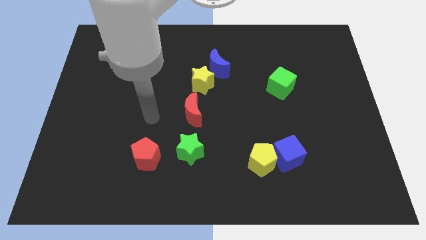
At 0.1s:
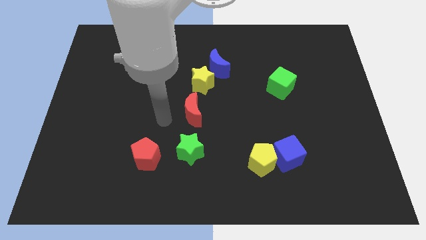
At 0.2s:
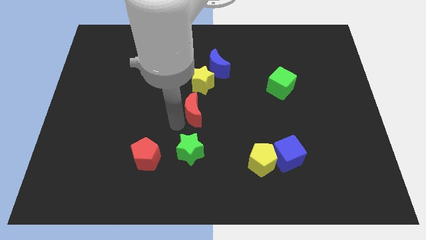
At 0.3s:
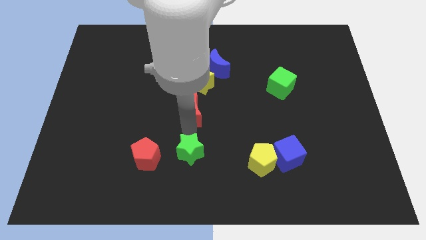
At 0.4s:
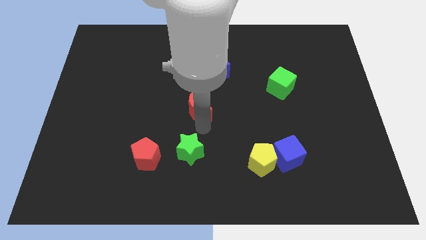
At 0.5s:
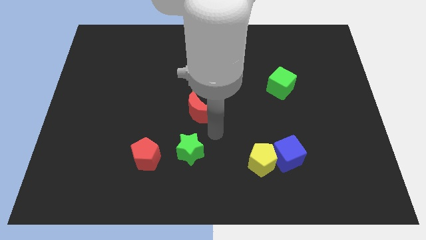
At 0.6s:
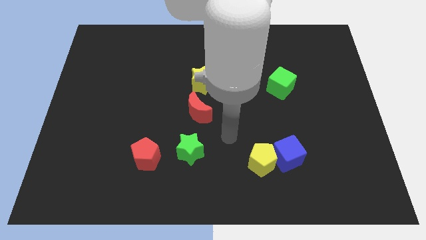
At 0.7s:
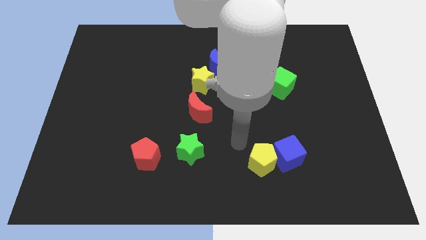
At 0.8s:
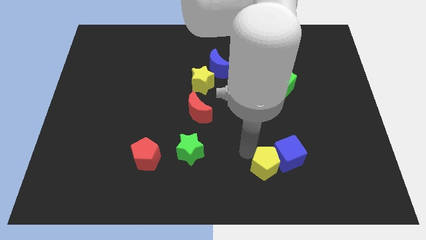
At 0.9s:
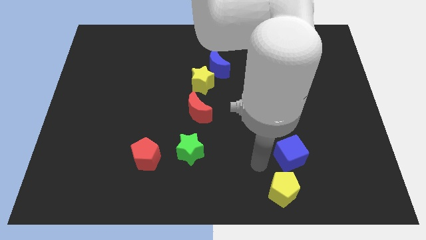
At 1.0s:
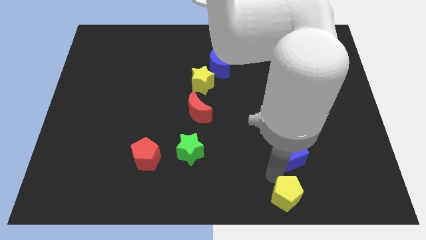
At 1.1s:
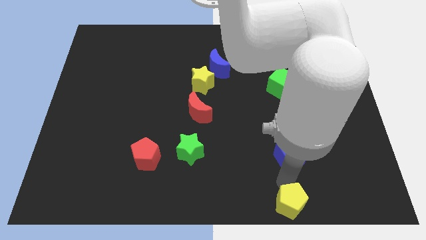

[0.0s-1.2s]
separate the blue cube from the yellow pentagon

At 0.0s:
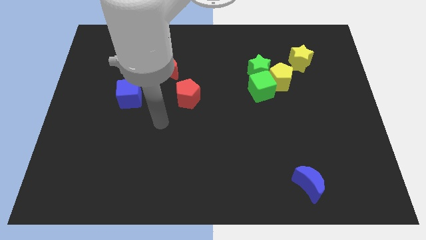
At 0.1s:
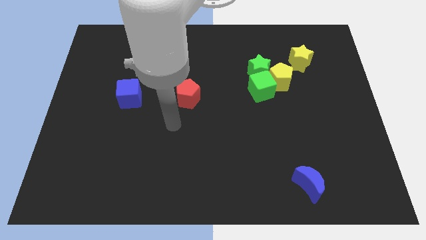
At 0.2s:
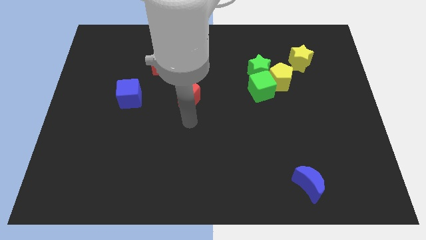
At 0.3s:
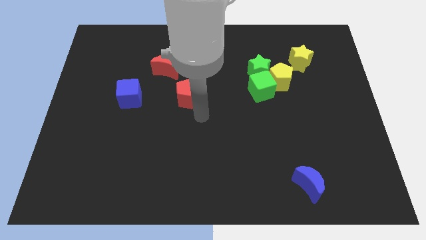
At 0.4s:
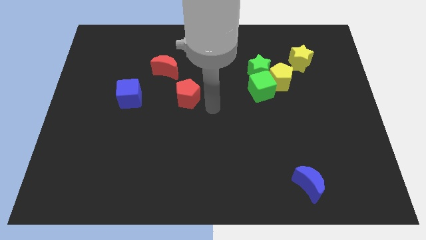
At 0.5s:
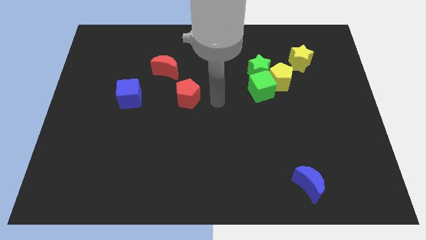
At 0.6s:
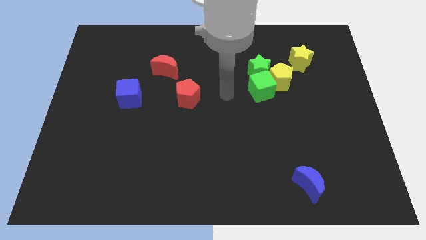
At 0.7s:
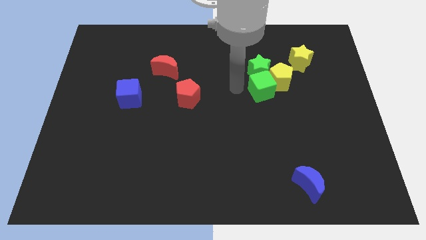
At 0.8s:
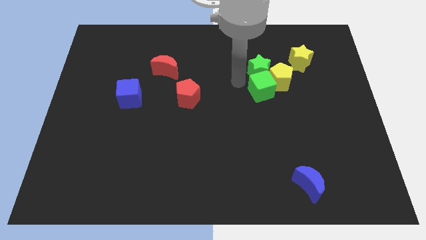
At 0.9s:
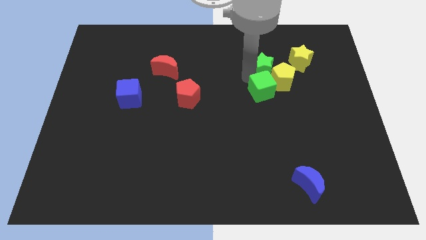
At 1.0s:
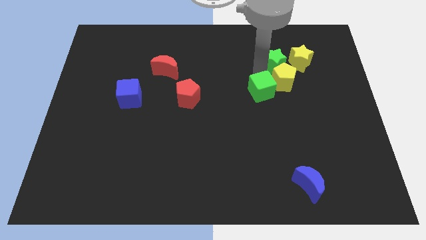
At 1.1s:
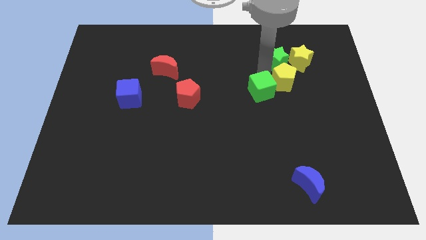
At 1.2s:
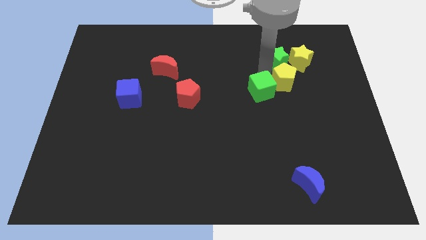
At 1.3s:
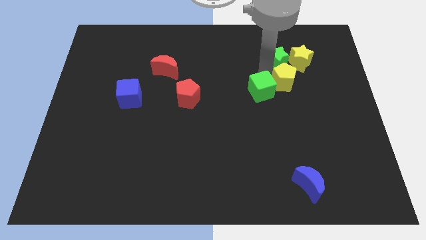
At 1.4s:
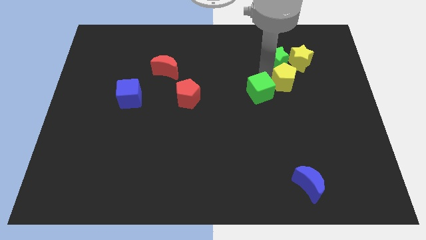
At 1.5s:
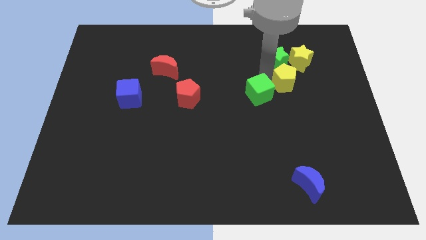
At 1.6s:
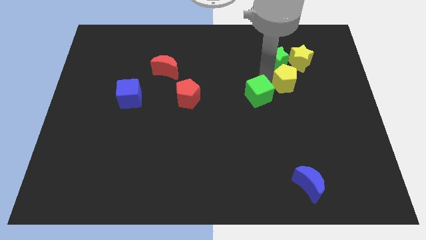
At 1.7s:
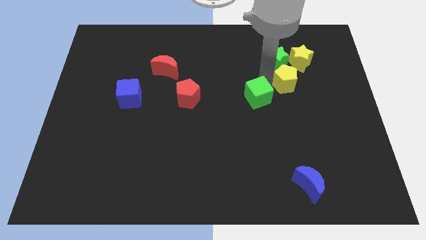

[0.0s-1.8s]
move the green cube away from the yellow pentagon and green star

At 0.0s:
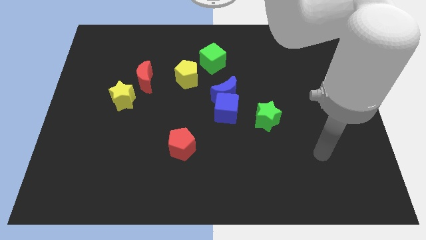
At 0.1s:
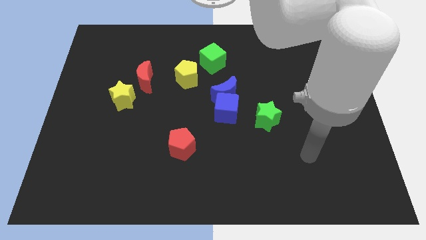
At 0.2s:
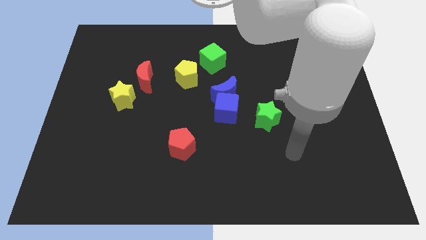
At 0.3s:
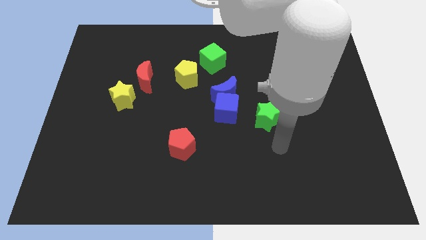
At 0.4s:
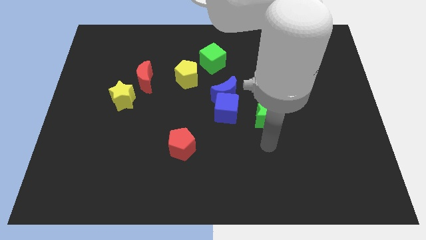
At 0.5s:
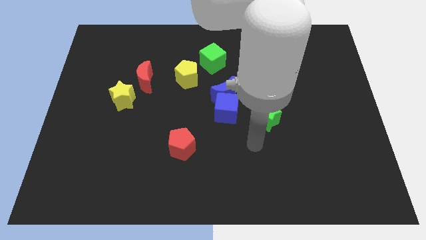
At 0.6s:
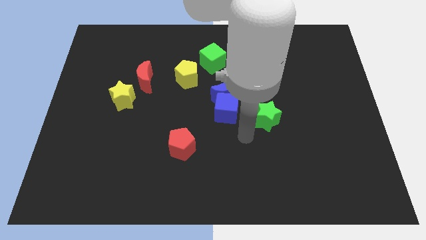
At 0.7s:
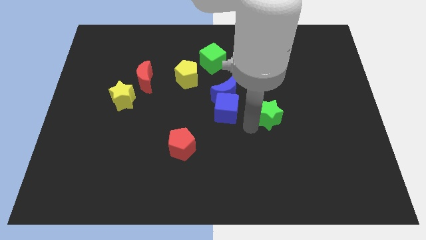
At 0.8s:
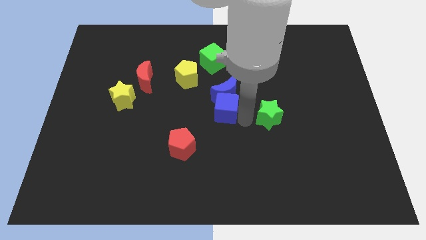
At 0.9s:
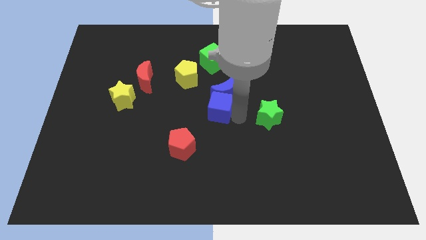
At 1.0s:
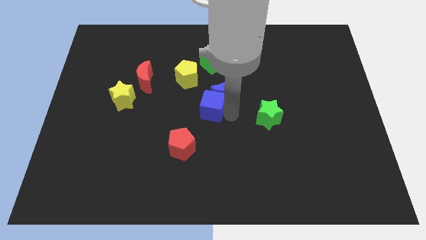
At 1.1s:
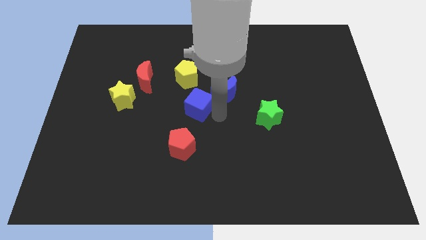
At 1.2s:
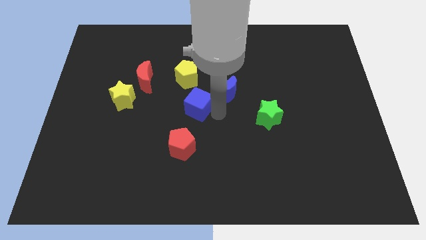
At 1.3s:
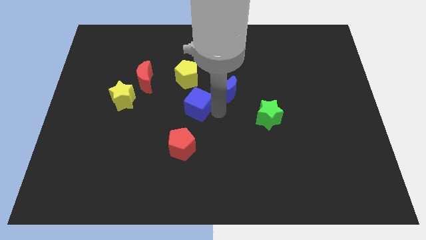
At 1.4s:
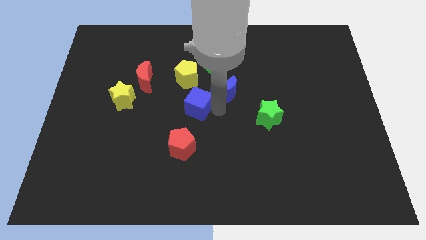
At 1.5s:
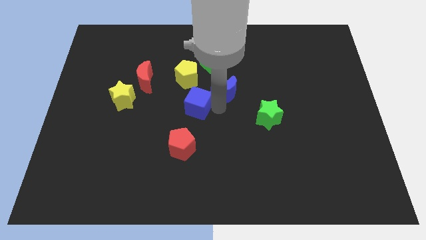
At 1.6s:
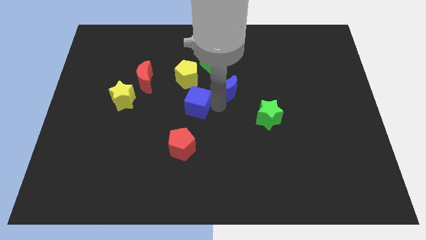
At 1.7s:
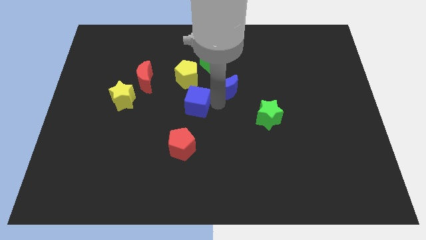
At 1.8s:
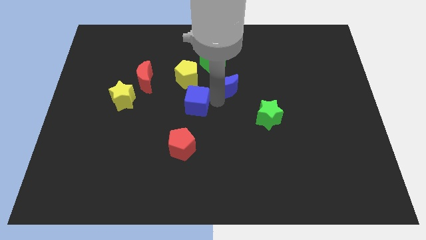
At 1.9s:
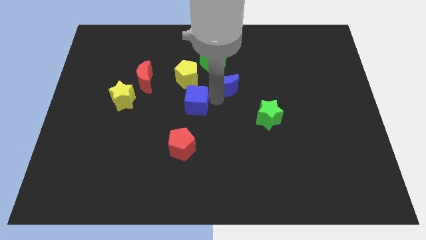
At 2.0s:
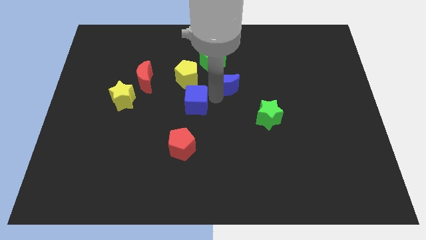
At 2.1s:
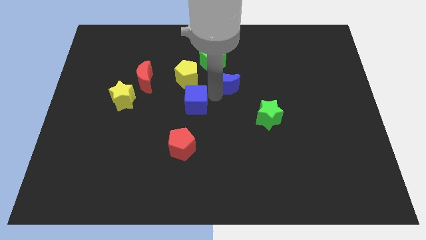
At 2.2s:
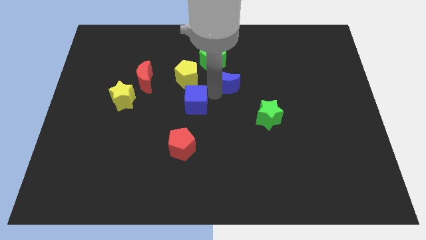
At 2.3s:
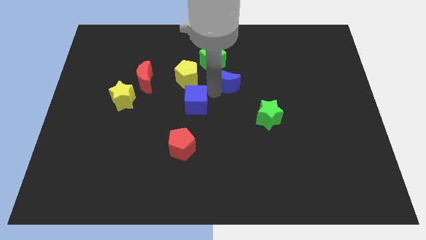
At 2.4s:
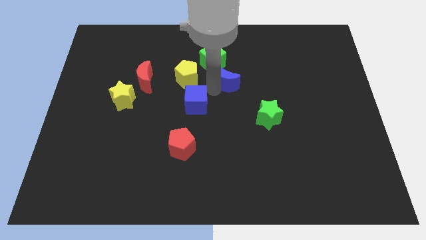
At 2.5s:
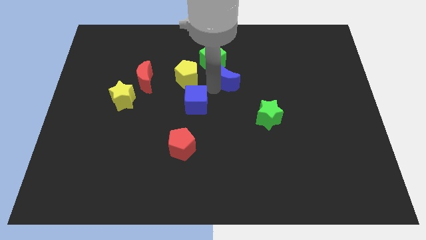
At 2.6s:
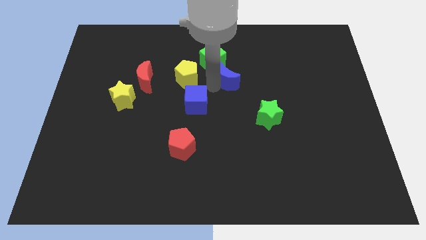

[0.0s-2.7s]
pull the blue moon apart from the blue cube

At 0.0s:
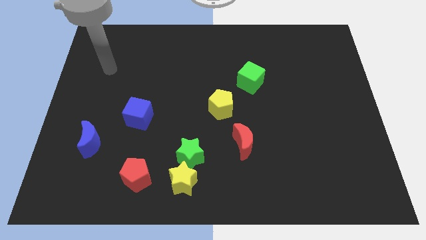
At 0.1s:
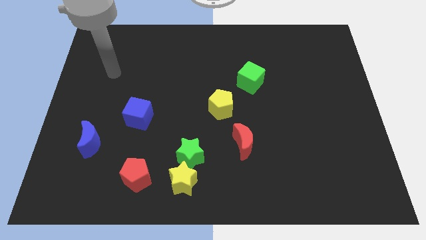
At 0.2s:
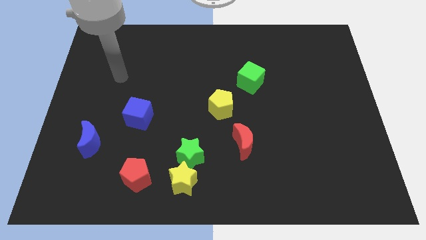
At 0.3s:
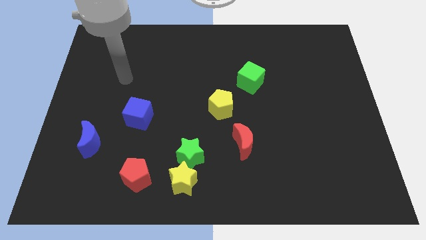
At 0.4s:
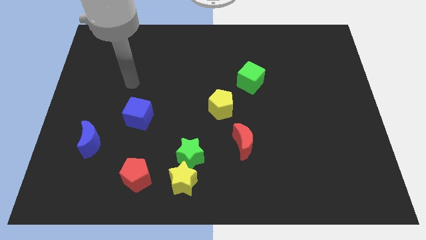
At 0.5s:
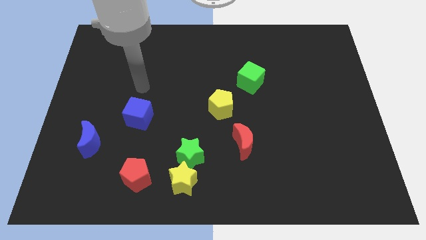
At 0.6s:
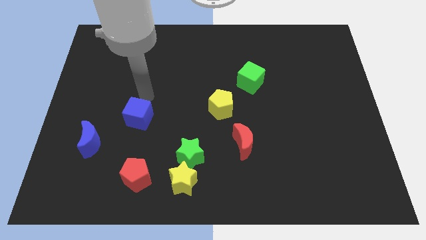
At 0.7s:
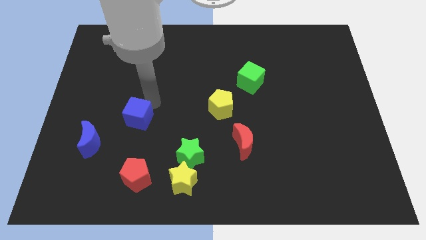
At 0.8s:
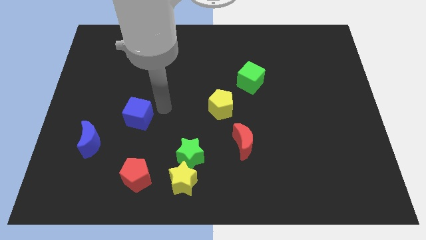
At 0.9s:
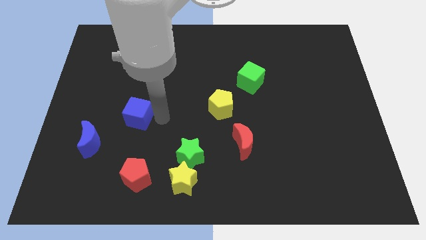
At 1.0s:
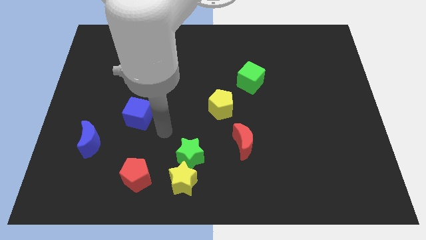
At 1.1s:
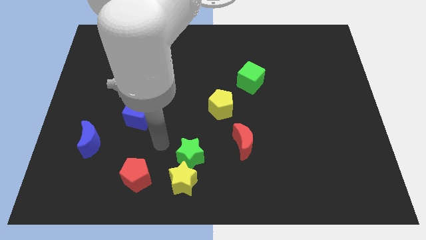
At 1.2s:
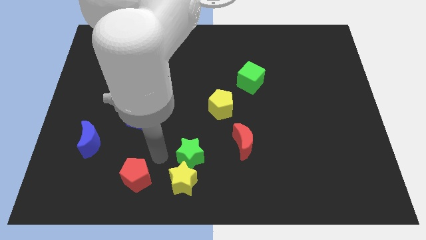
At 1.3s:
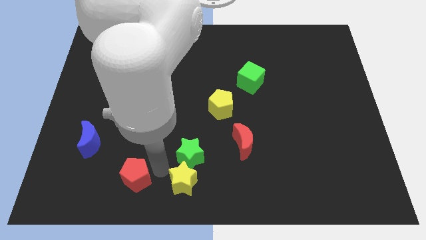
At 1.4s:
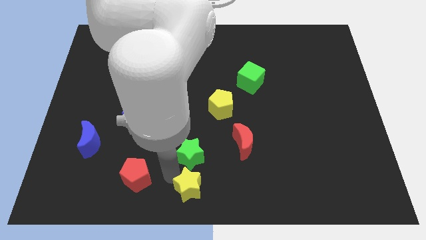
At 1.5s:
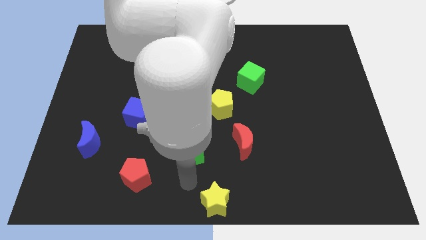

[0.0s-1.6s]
separate the green star from the yellow star

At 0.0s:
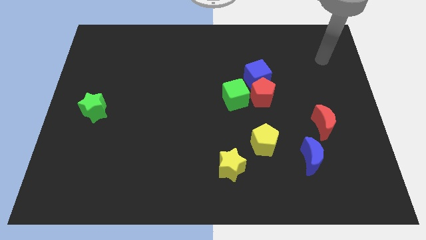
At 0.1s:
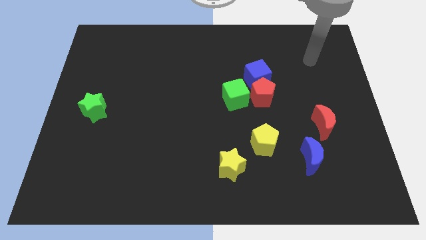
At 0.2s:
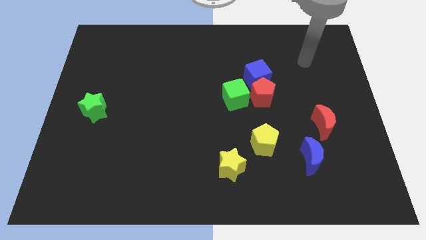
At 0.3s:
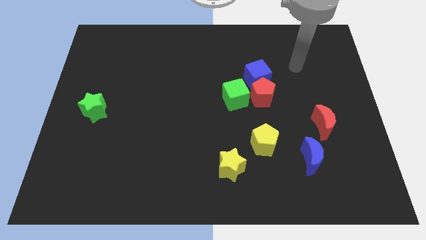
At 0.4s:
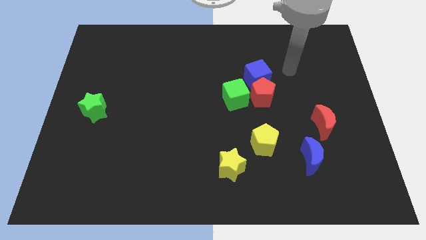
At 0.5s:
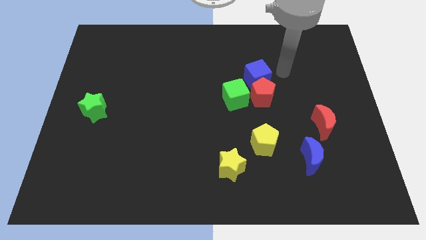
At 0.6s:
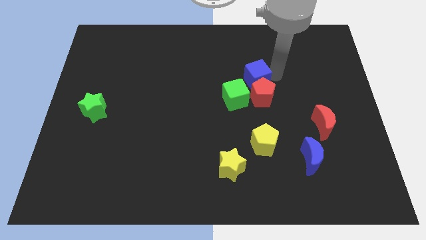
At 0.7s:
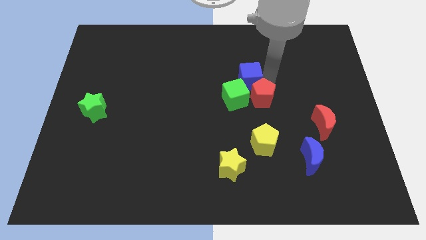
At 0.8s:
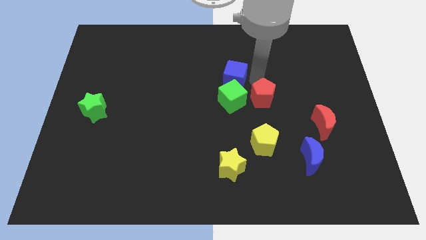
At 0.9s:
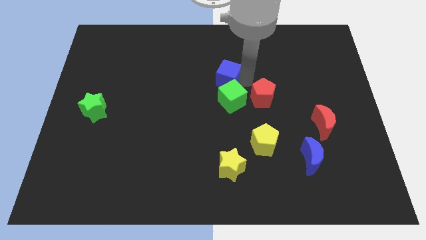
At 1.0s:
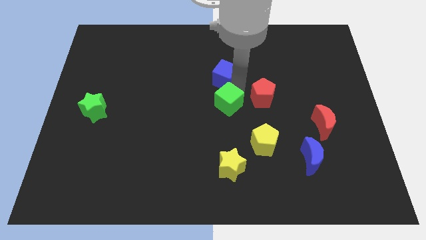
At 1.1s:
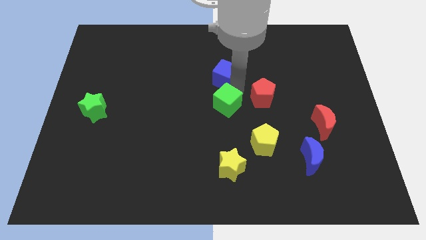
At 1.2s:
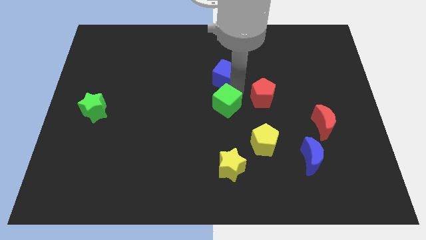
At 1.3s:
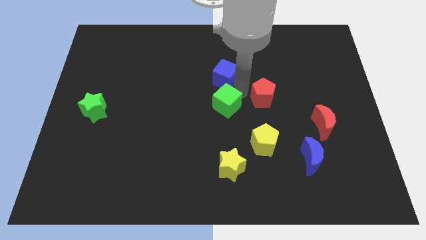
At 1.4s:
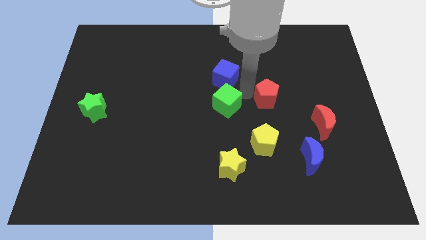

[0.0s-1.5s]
move the red pentagon away from the blue cube and green cube

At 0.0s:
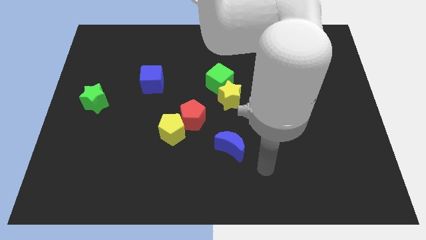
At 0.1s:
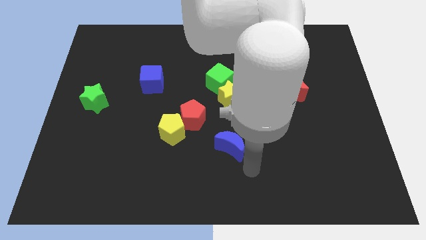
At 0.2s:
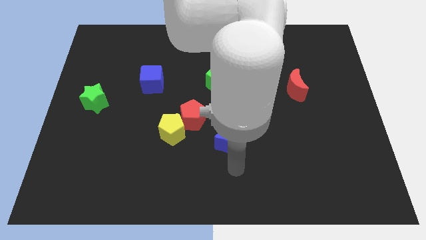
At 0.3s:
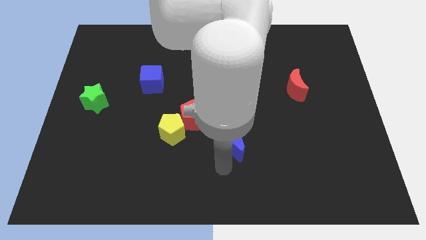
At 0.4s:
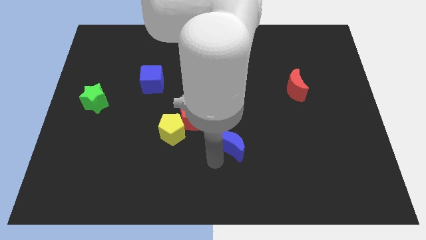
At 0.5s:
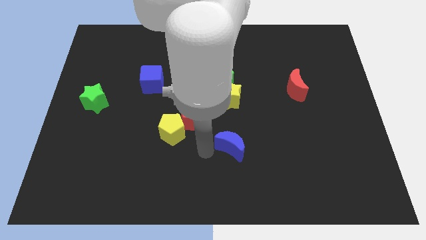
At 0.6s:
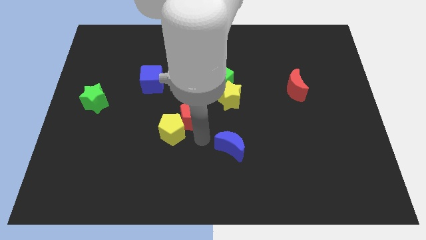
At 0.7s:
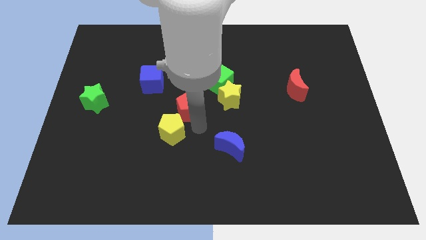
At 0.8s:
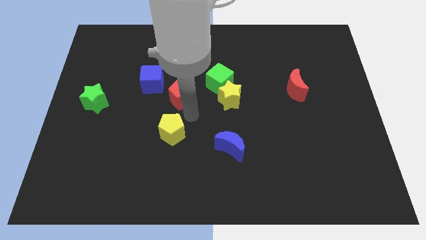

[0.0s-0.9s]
pull the yellow pentagon apart from the red pentagon
